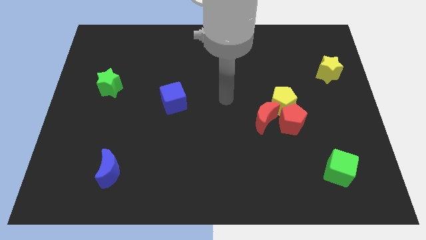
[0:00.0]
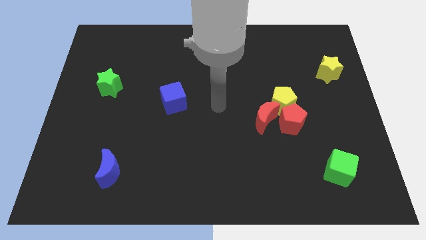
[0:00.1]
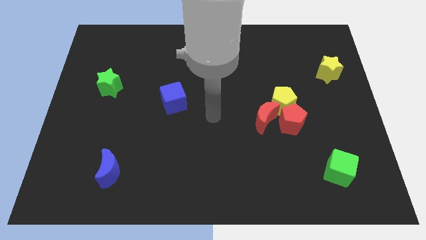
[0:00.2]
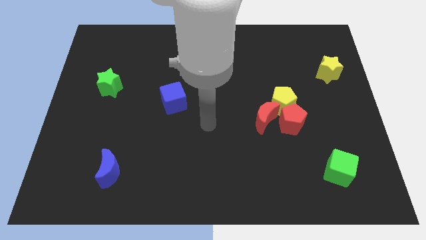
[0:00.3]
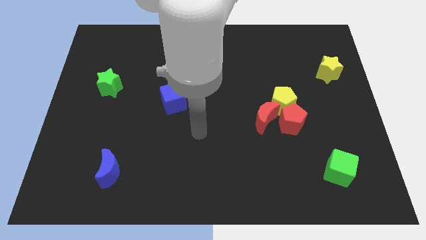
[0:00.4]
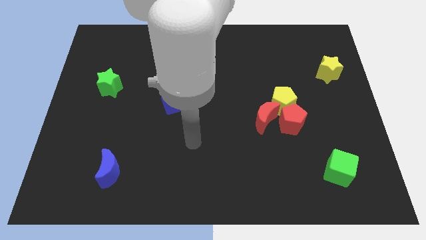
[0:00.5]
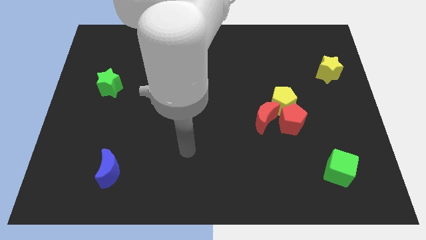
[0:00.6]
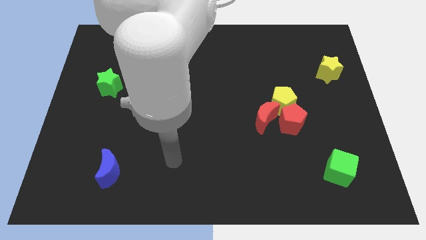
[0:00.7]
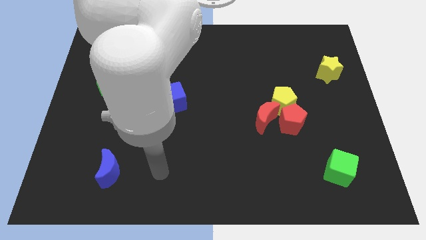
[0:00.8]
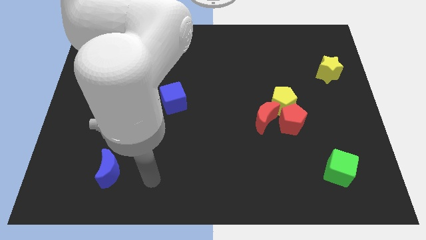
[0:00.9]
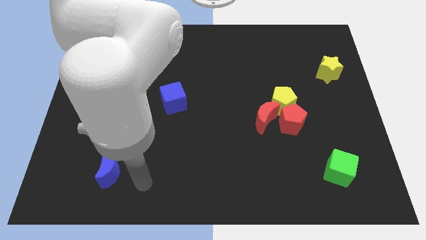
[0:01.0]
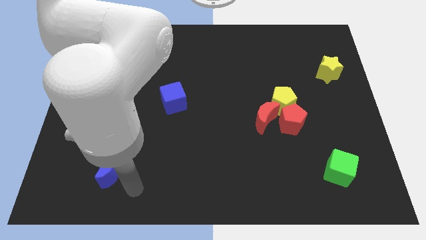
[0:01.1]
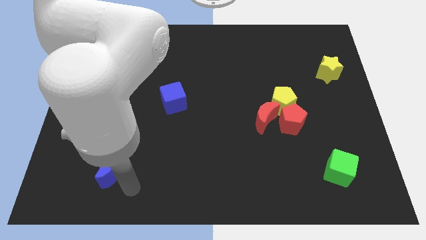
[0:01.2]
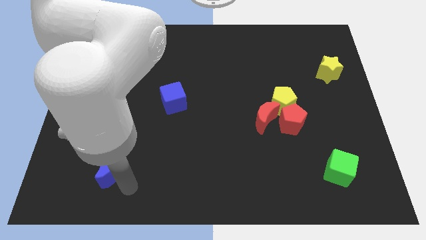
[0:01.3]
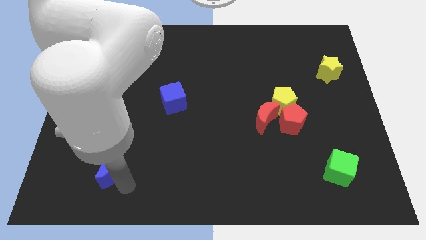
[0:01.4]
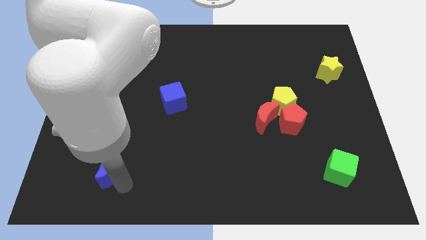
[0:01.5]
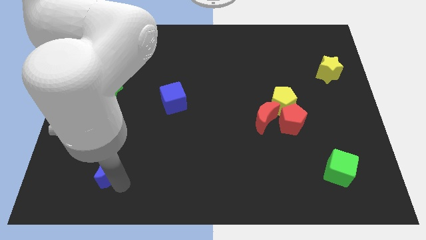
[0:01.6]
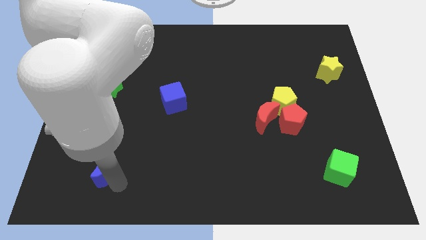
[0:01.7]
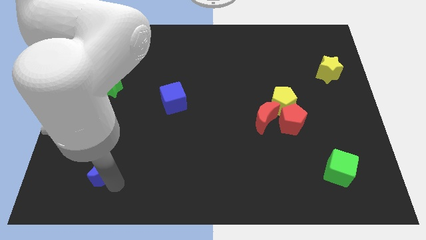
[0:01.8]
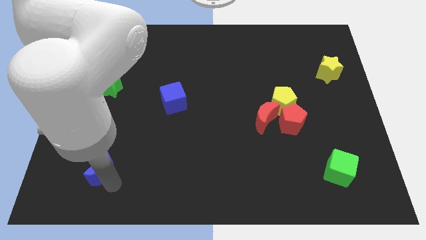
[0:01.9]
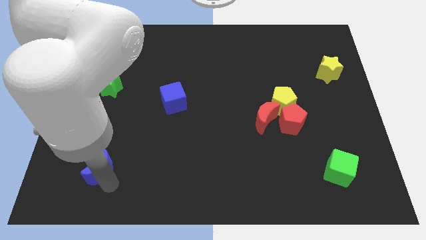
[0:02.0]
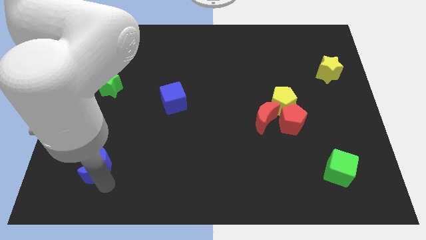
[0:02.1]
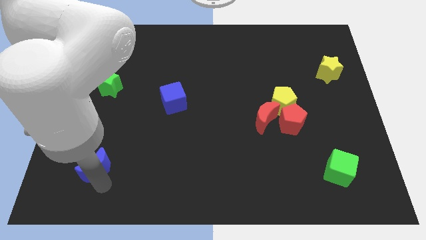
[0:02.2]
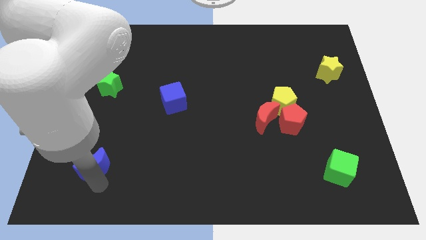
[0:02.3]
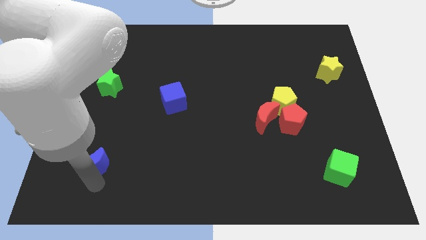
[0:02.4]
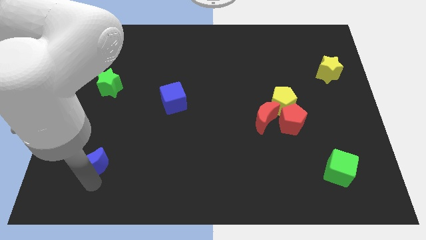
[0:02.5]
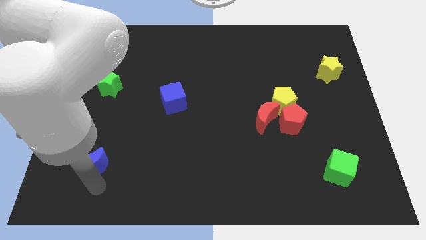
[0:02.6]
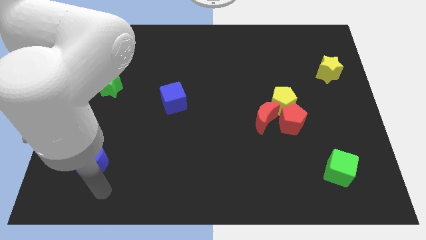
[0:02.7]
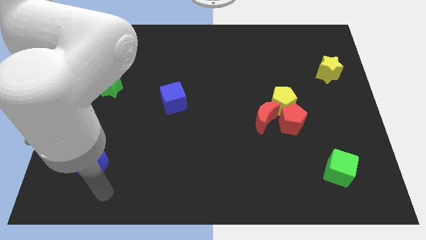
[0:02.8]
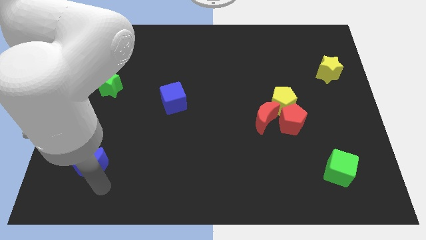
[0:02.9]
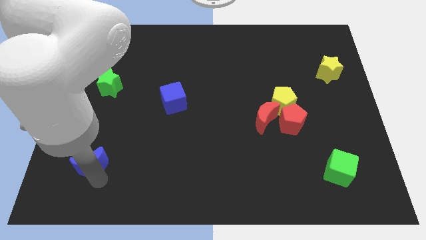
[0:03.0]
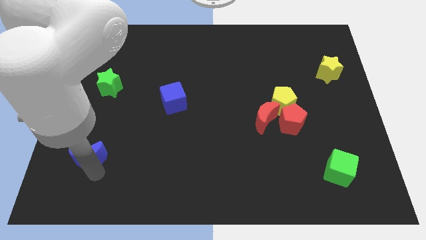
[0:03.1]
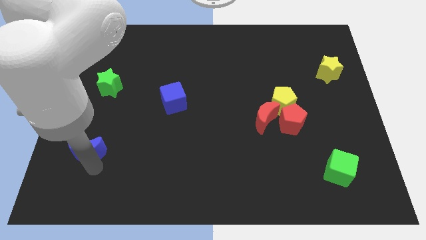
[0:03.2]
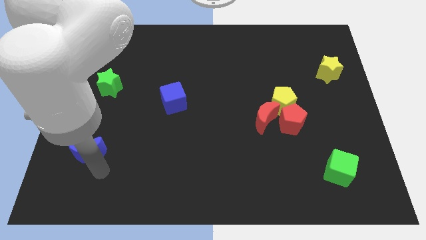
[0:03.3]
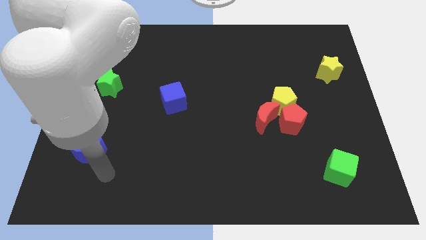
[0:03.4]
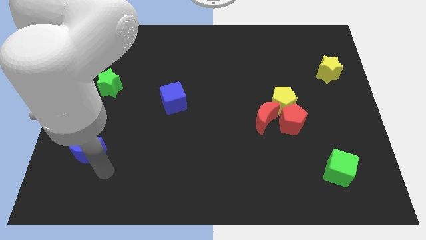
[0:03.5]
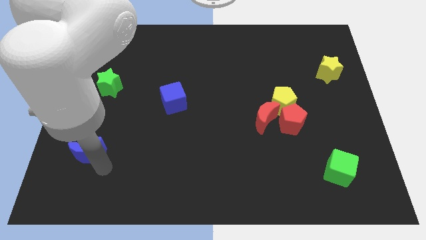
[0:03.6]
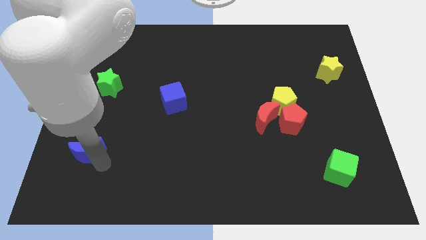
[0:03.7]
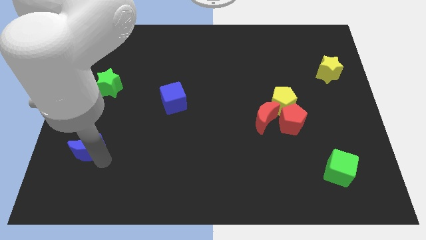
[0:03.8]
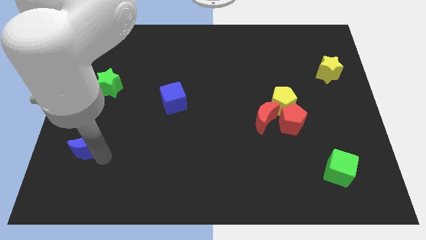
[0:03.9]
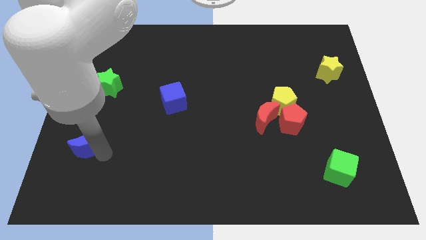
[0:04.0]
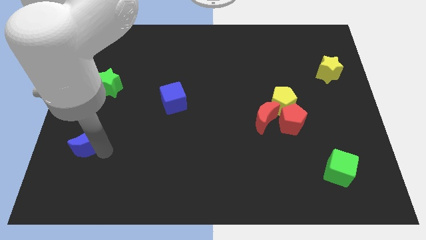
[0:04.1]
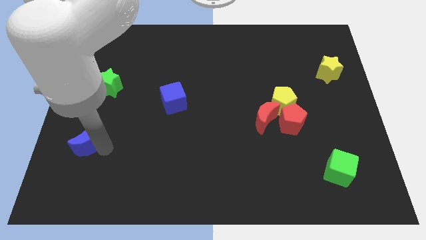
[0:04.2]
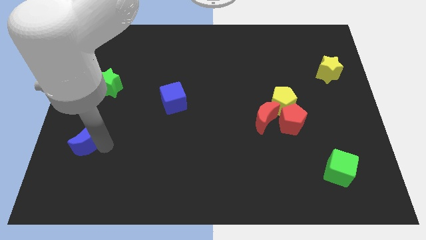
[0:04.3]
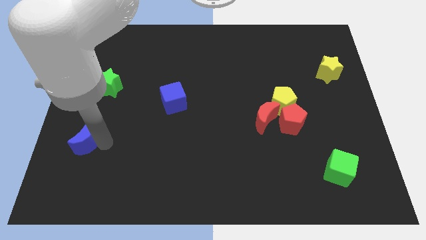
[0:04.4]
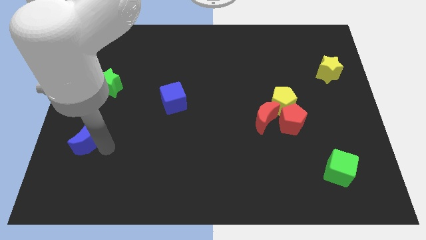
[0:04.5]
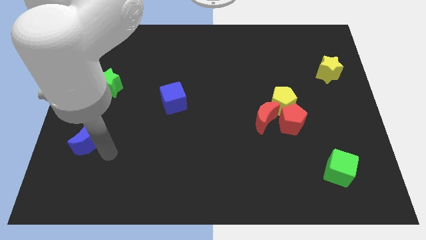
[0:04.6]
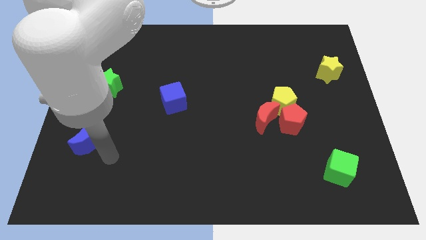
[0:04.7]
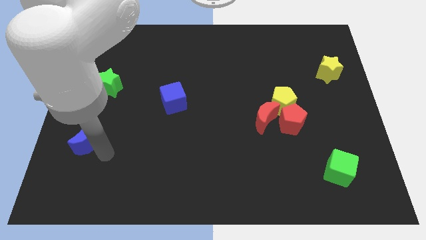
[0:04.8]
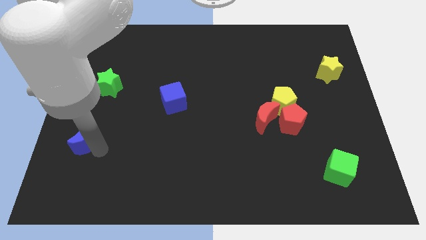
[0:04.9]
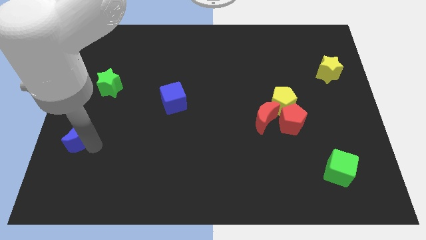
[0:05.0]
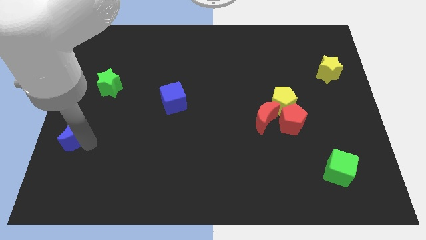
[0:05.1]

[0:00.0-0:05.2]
slide the blue moon to the left side of the board
